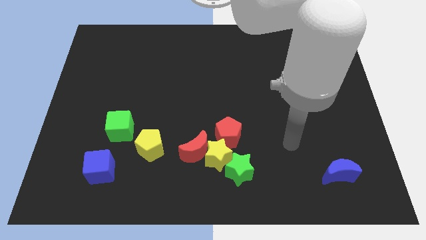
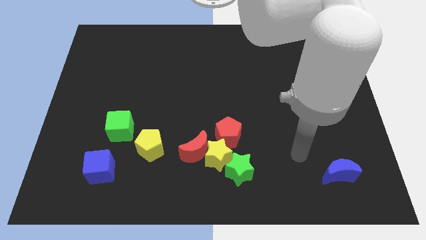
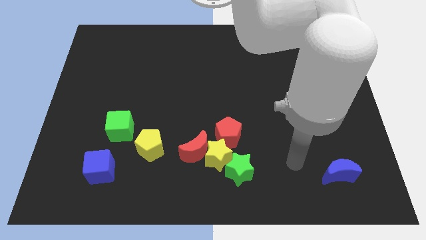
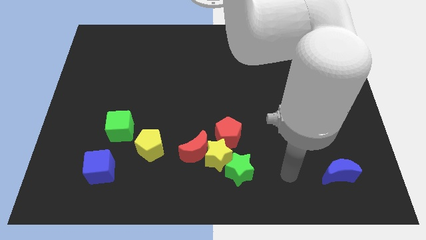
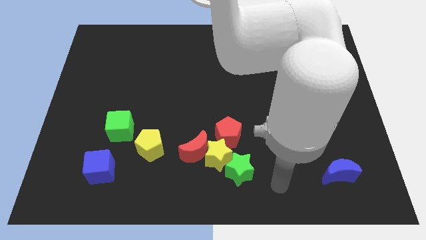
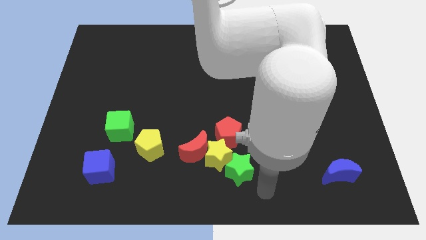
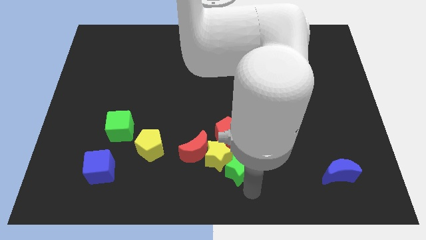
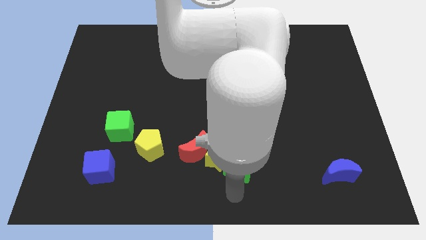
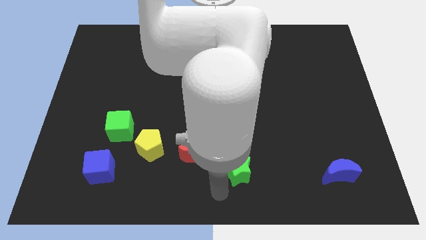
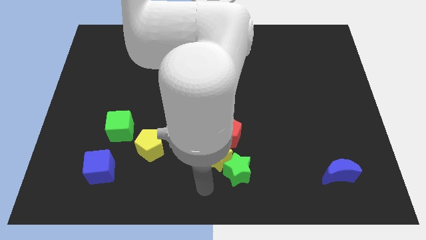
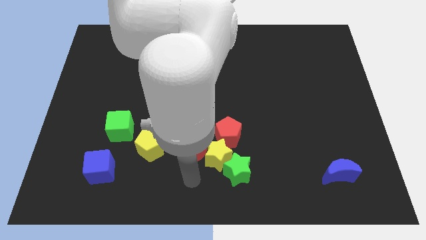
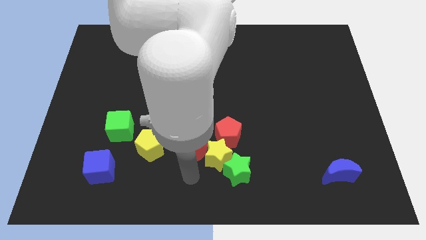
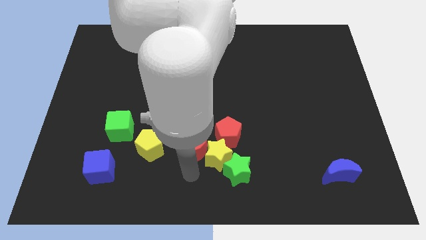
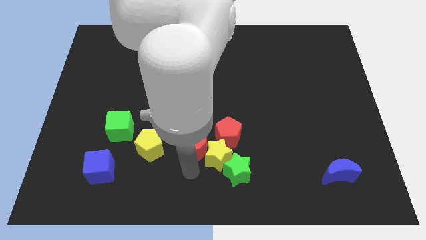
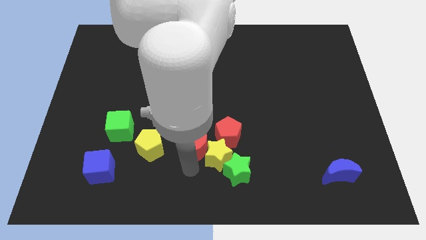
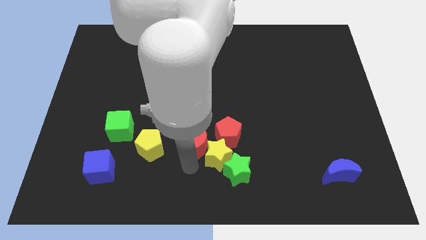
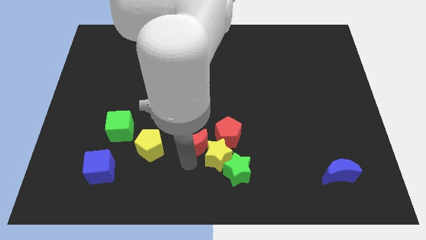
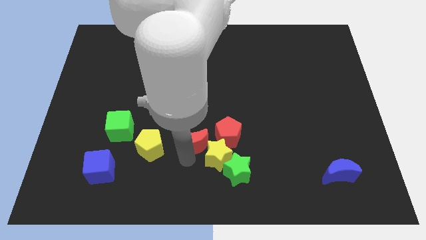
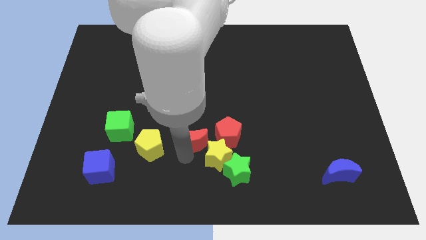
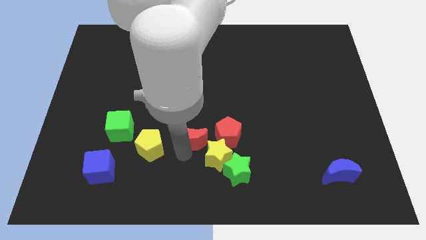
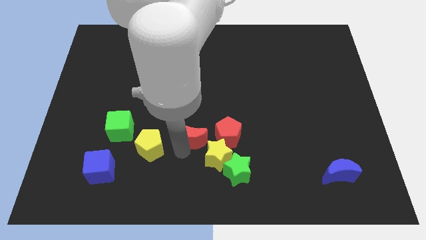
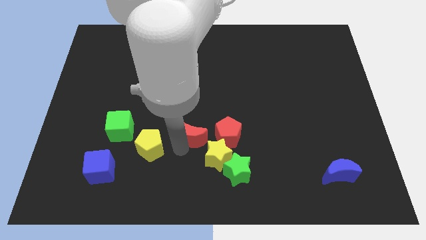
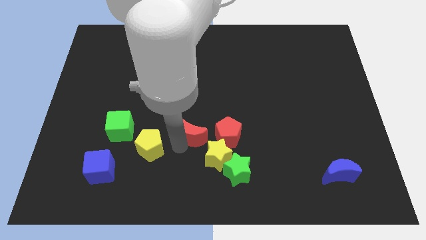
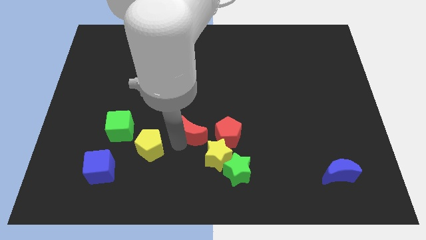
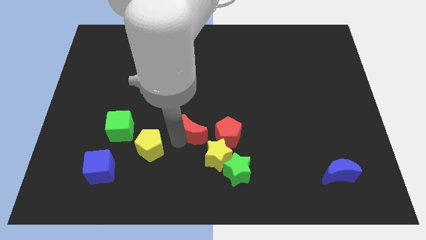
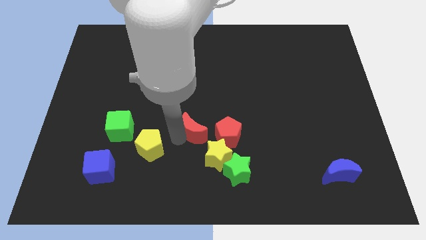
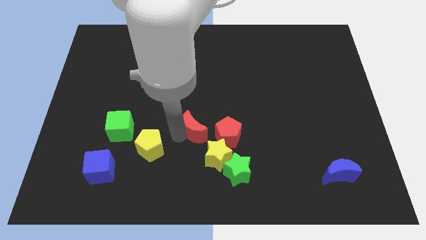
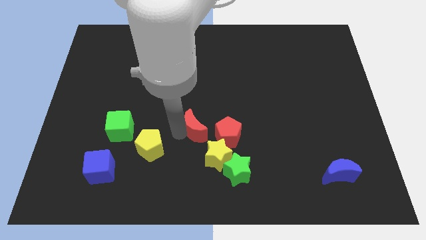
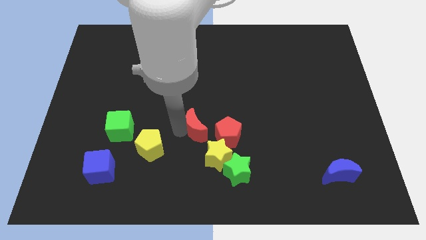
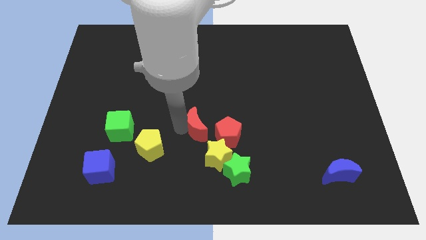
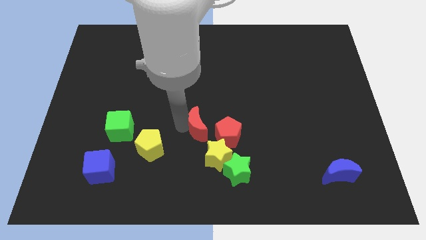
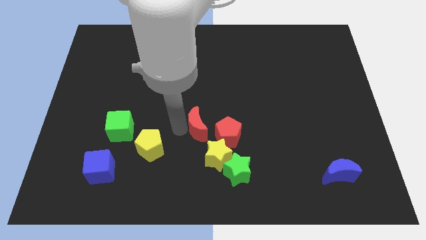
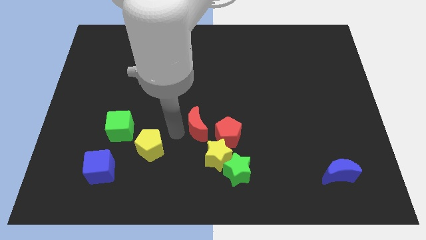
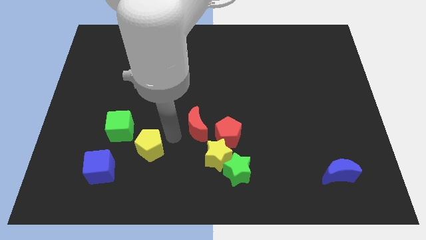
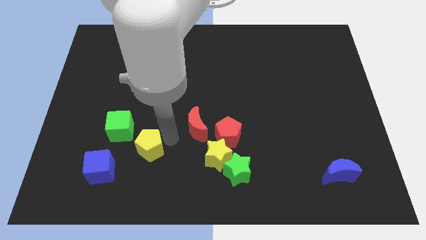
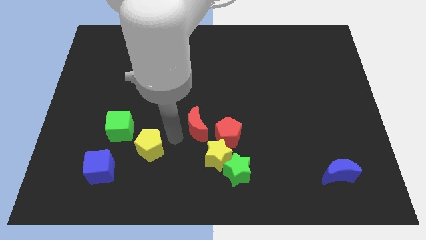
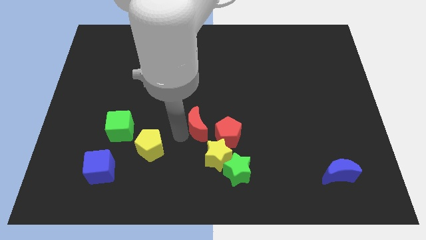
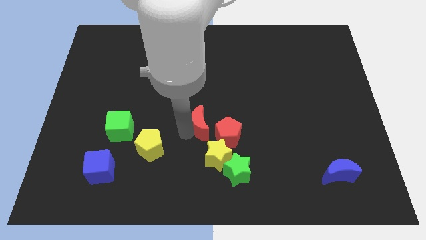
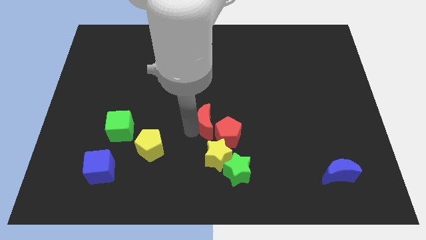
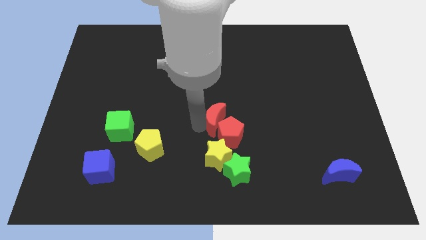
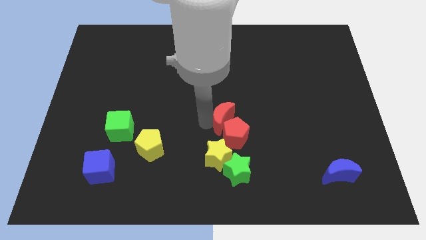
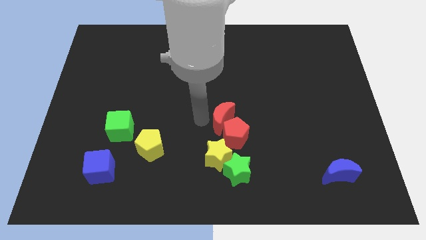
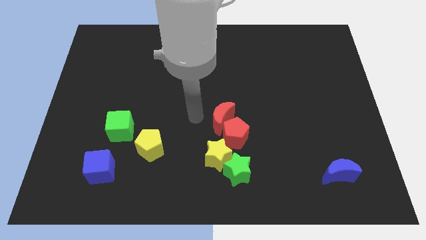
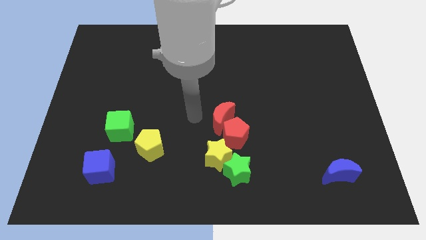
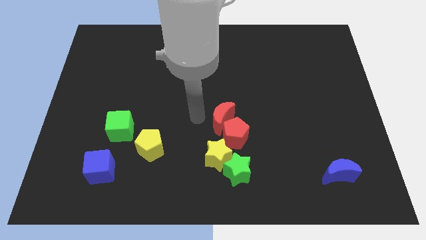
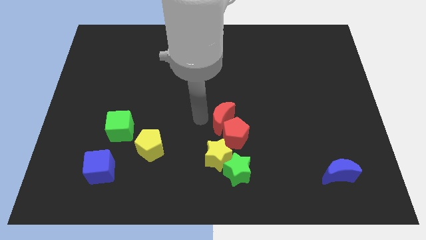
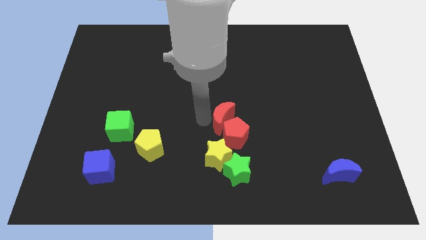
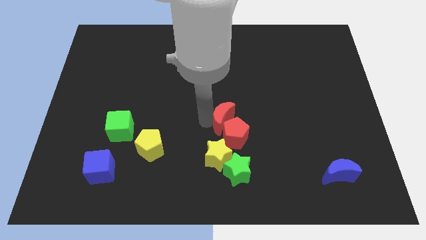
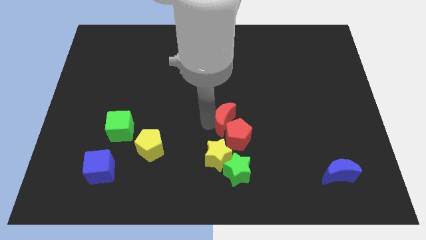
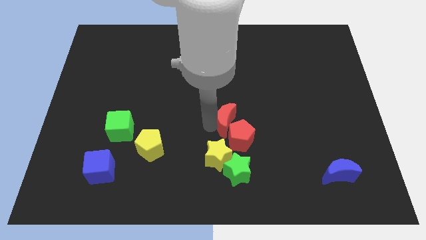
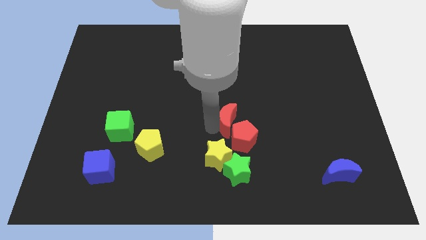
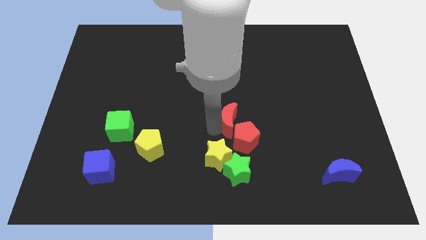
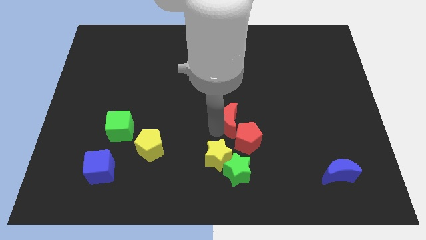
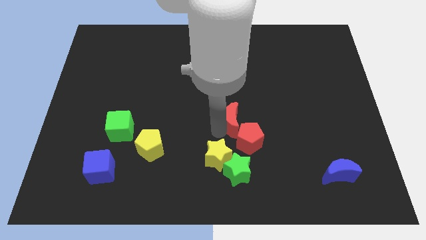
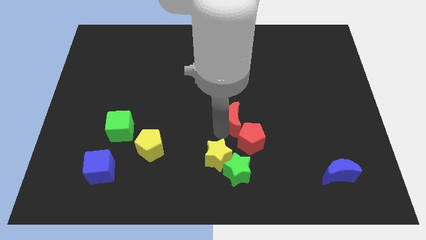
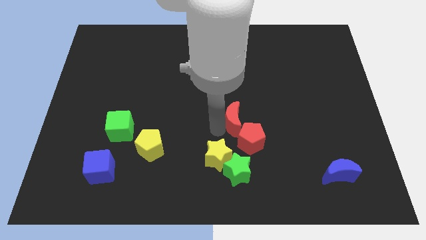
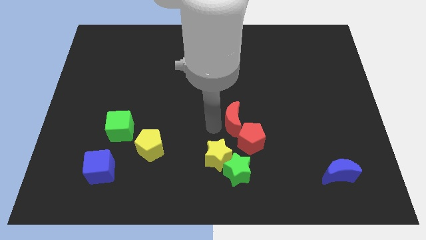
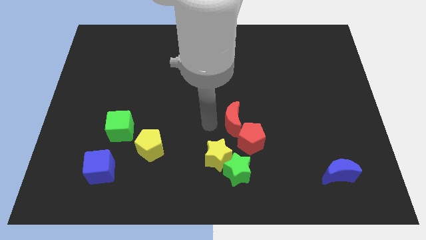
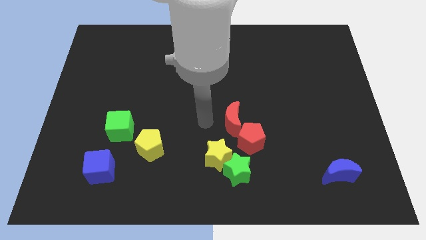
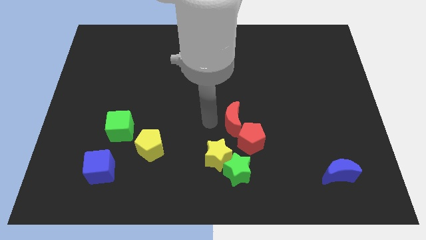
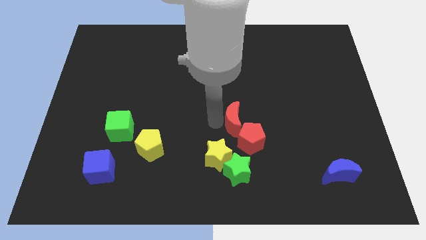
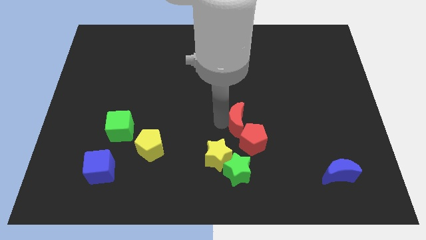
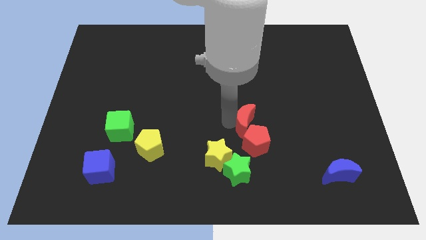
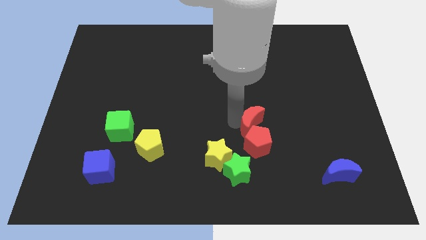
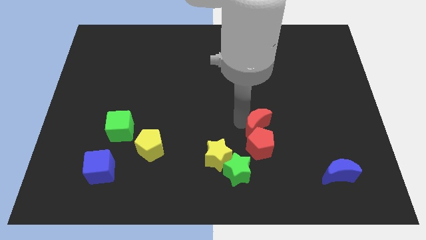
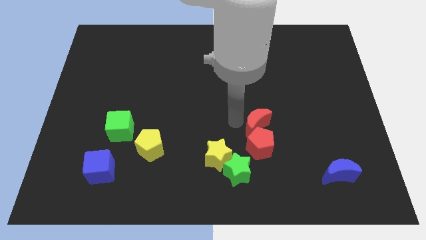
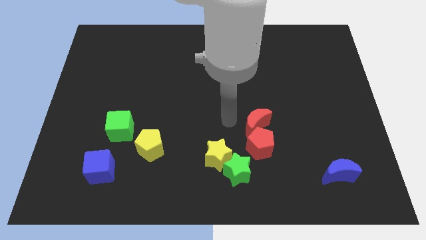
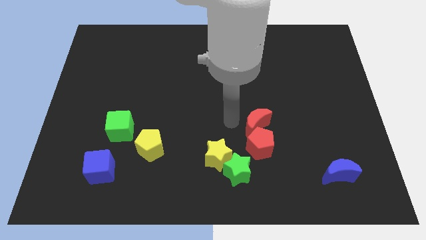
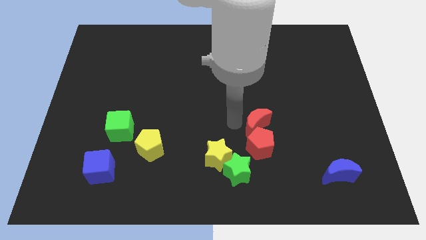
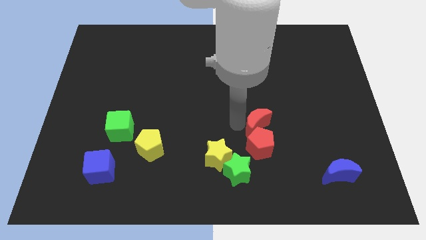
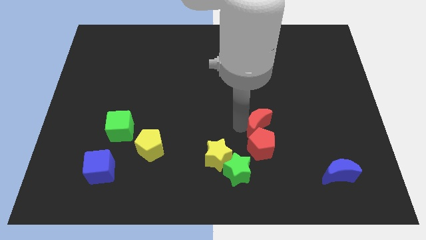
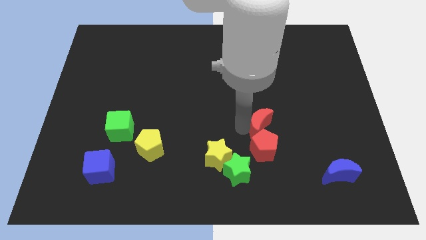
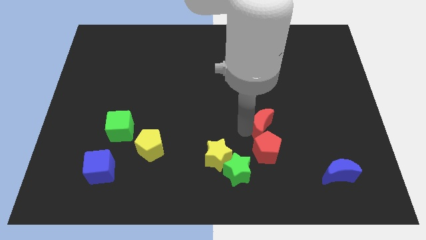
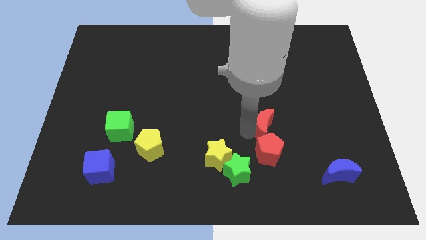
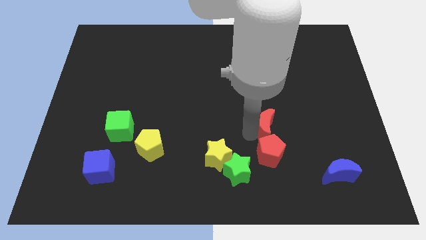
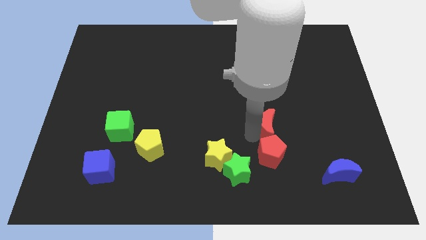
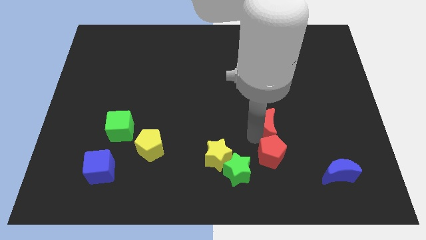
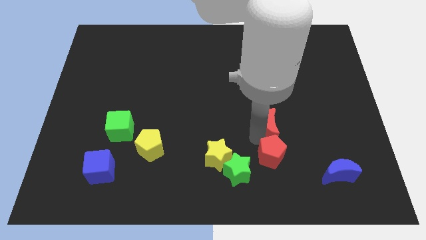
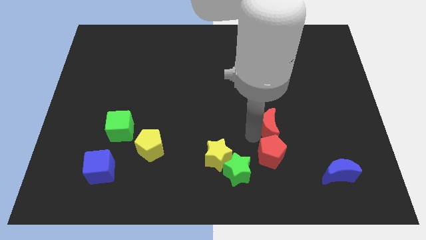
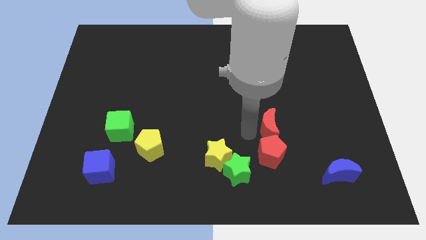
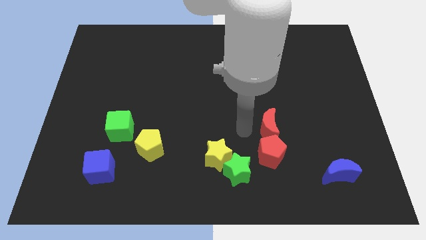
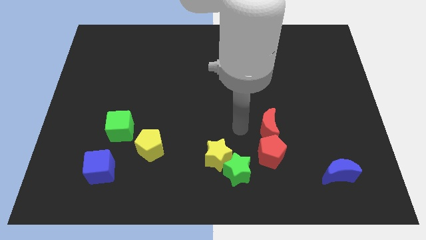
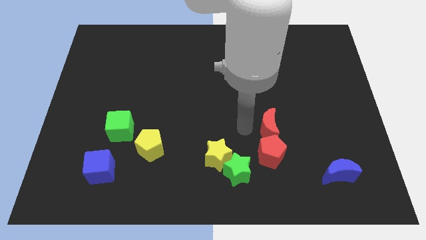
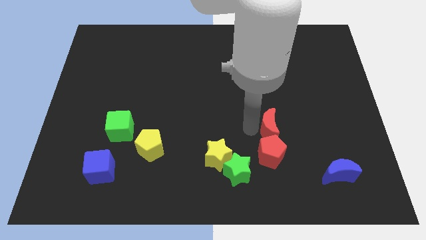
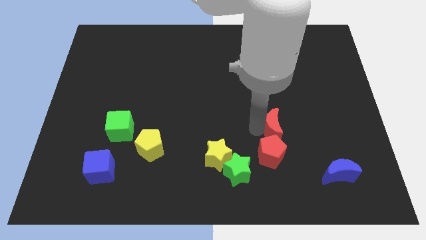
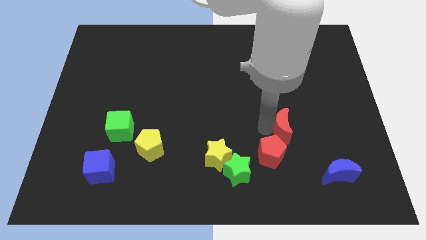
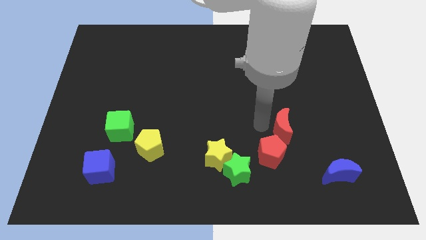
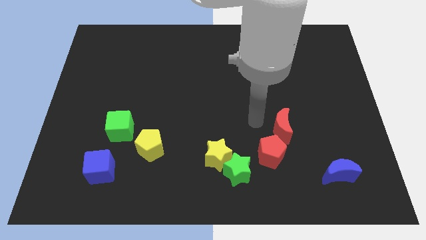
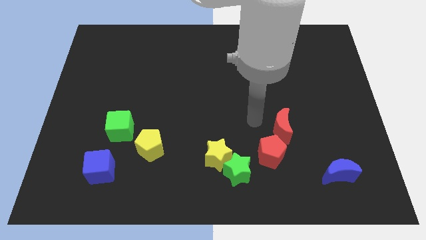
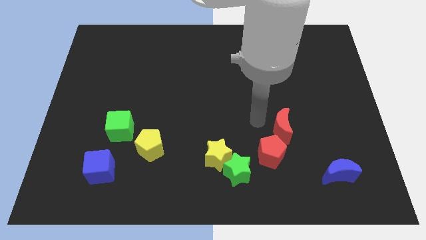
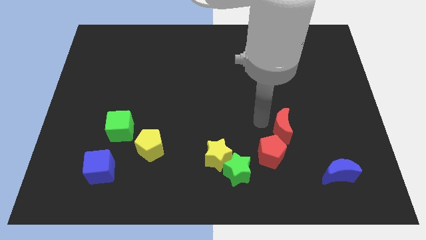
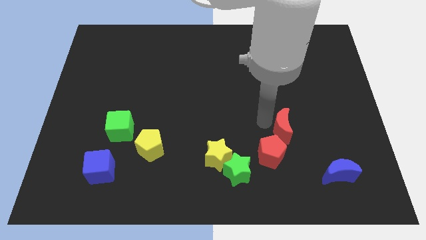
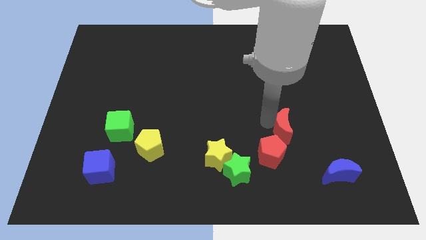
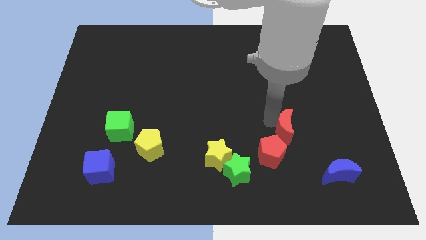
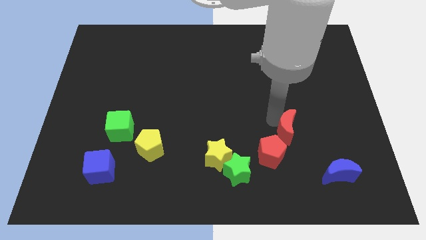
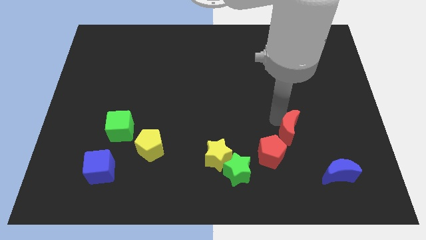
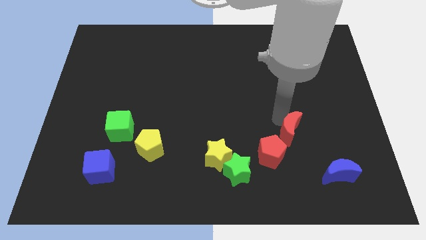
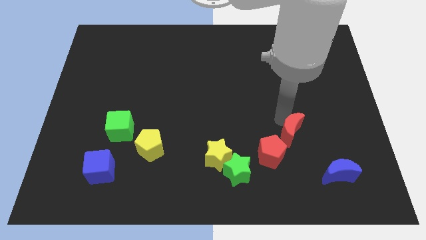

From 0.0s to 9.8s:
slide the red moon to the right
